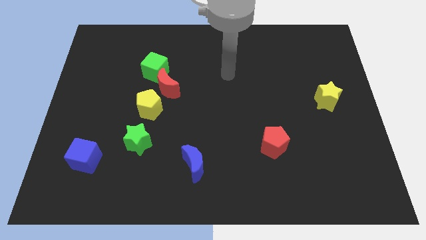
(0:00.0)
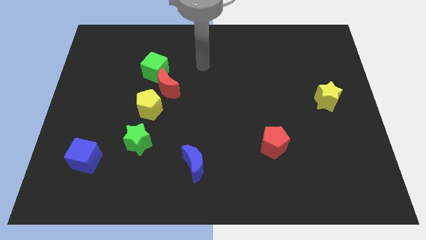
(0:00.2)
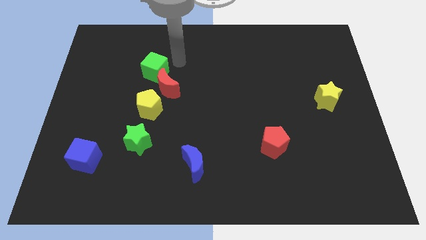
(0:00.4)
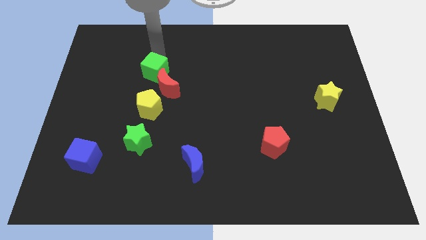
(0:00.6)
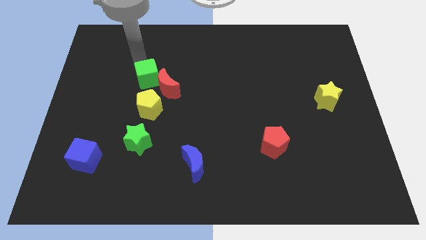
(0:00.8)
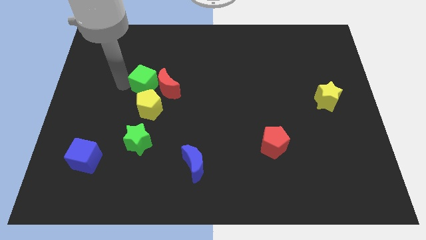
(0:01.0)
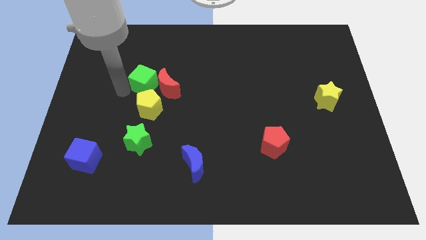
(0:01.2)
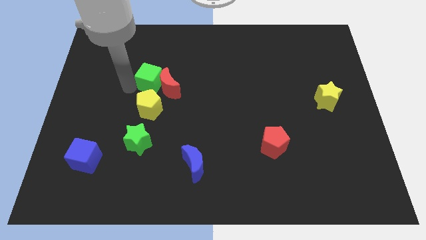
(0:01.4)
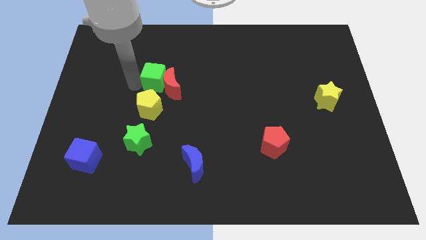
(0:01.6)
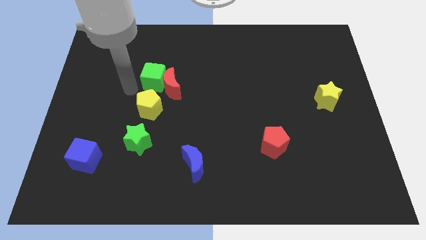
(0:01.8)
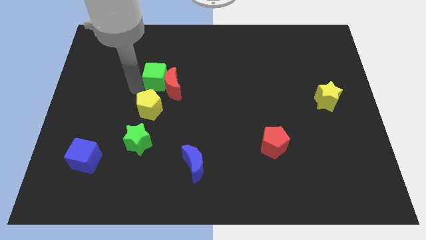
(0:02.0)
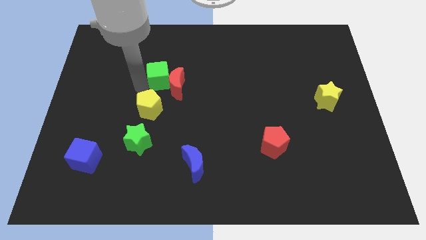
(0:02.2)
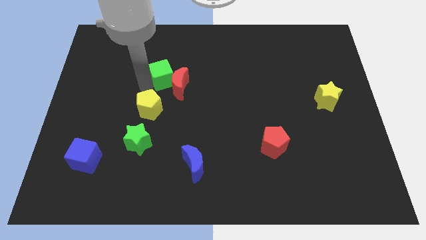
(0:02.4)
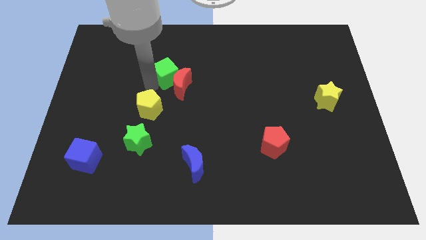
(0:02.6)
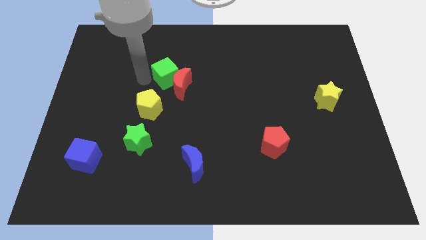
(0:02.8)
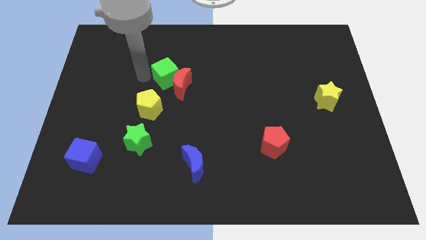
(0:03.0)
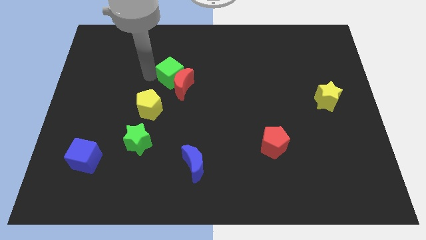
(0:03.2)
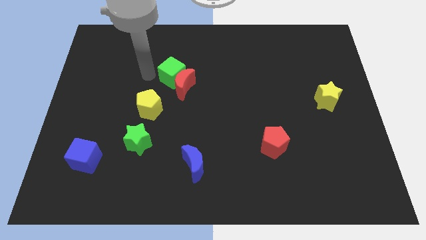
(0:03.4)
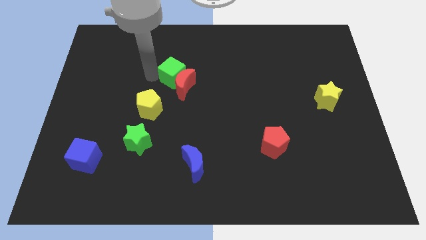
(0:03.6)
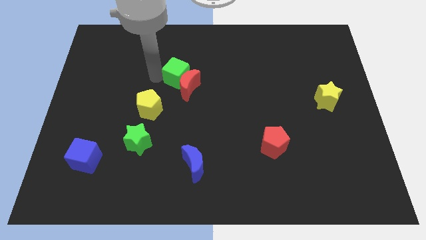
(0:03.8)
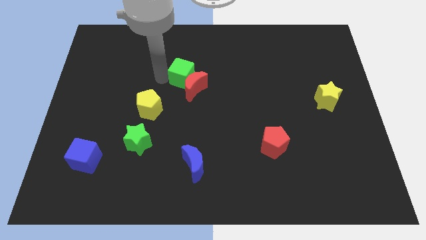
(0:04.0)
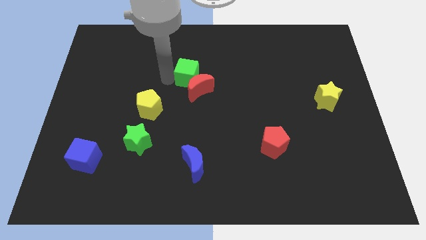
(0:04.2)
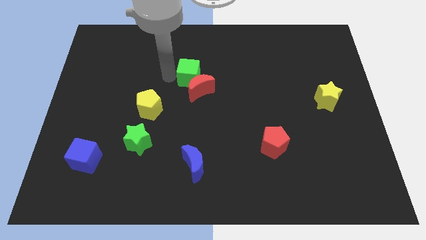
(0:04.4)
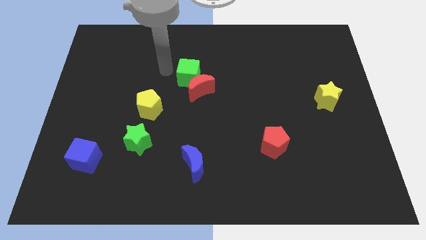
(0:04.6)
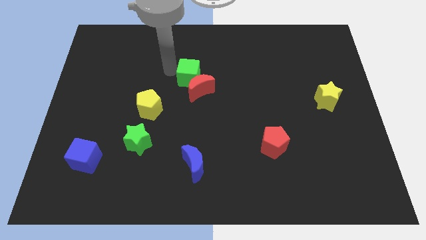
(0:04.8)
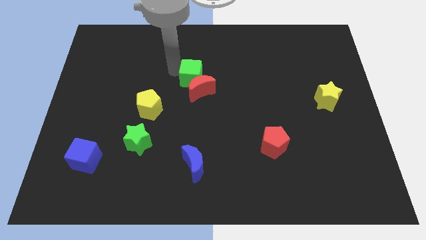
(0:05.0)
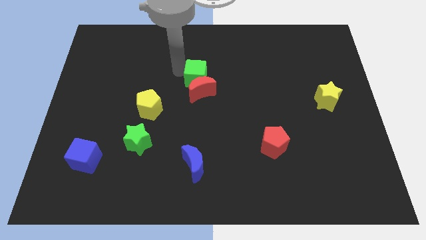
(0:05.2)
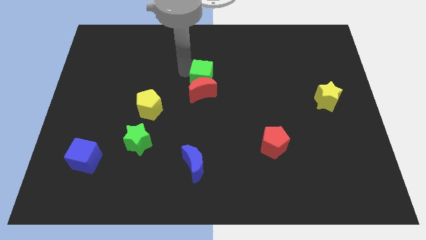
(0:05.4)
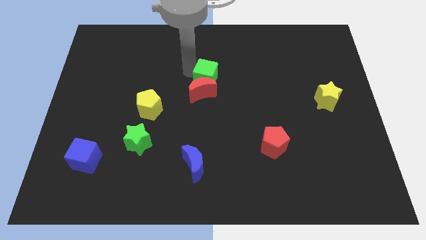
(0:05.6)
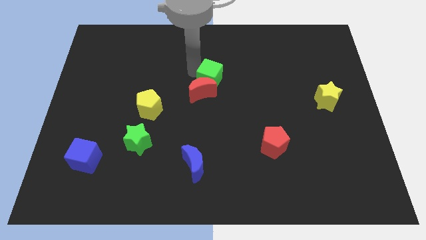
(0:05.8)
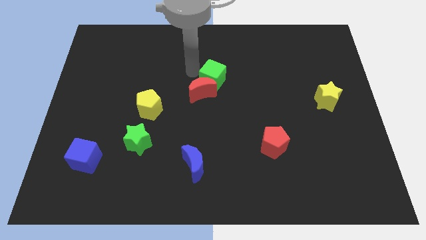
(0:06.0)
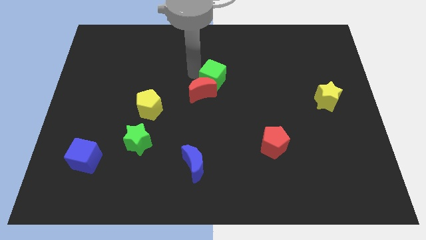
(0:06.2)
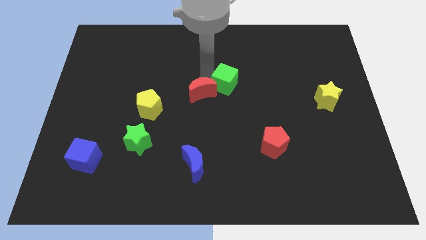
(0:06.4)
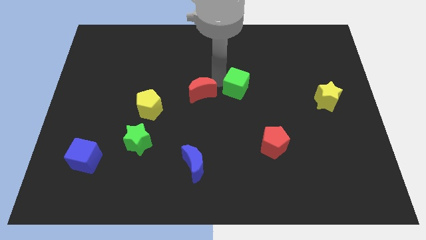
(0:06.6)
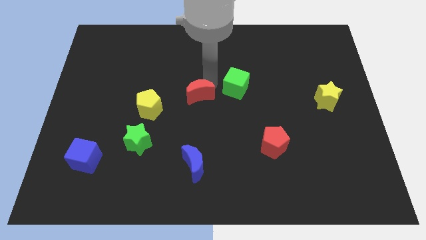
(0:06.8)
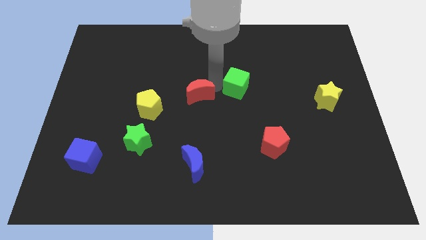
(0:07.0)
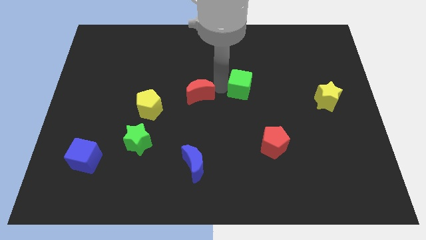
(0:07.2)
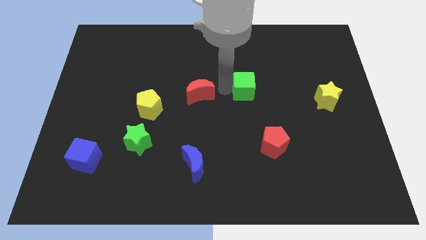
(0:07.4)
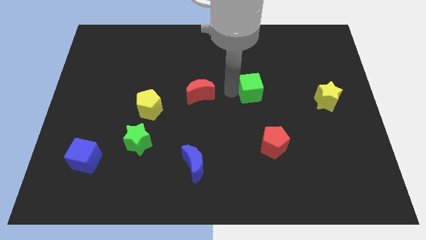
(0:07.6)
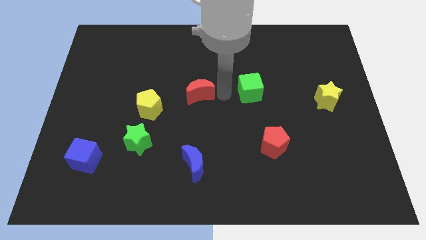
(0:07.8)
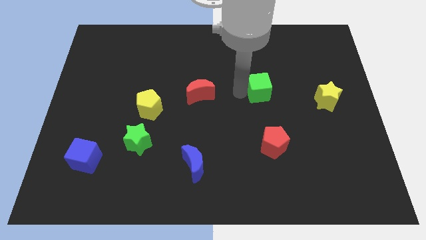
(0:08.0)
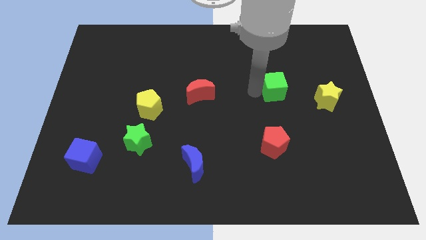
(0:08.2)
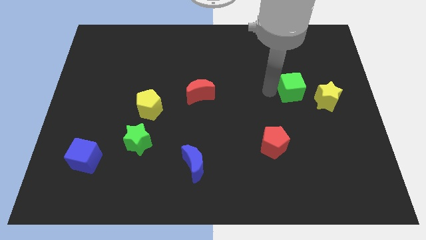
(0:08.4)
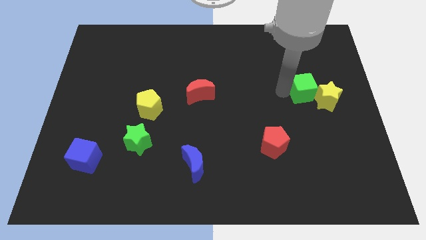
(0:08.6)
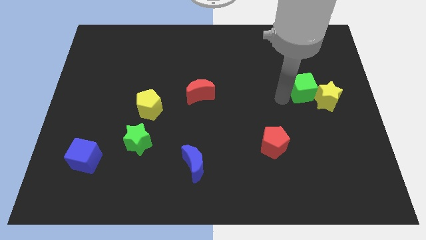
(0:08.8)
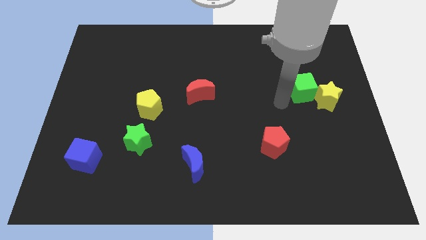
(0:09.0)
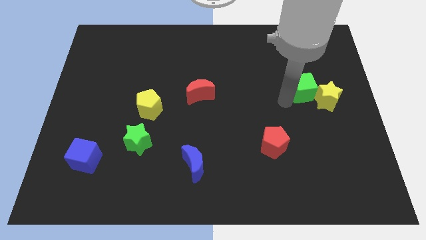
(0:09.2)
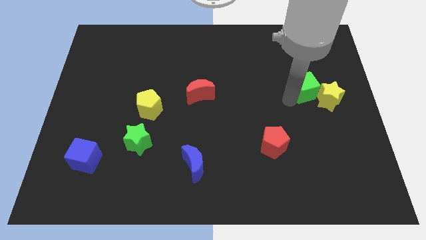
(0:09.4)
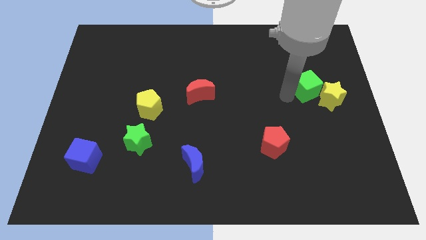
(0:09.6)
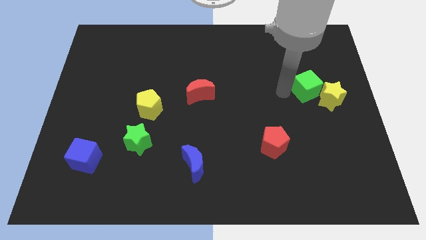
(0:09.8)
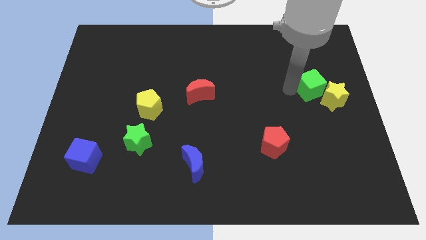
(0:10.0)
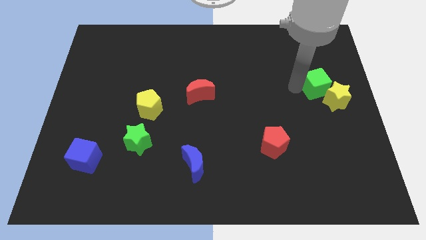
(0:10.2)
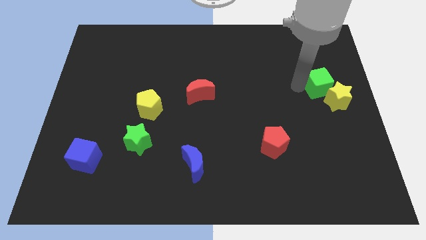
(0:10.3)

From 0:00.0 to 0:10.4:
put the green cube to the right side

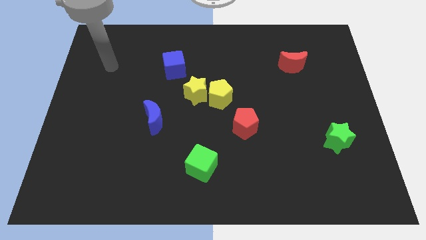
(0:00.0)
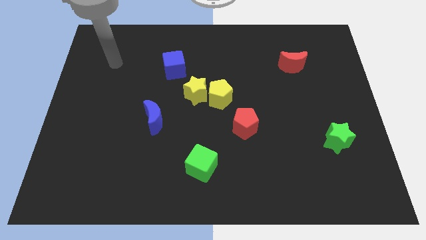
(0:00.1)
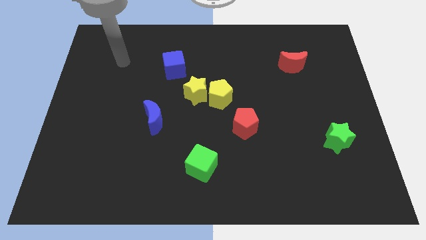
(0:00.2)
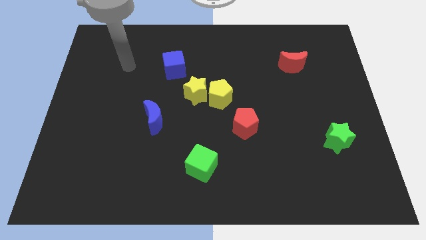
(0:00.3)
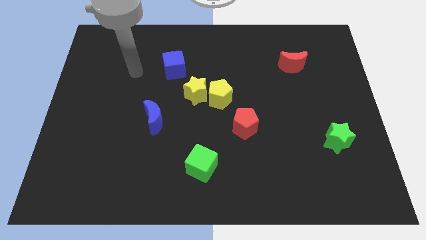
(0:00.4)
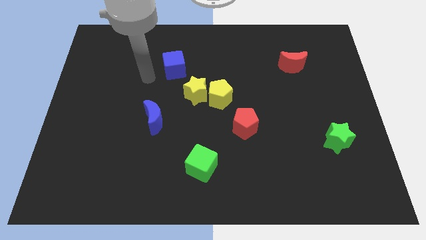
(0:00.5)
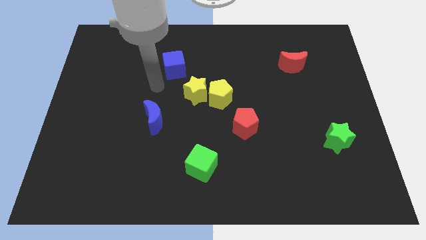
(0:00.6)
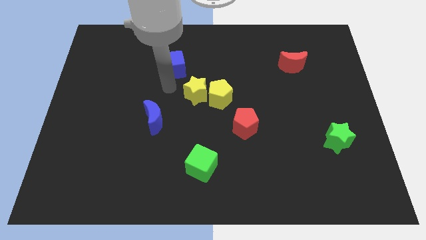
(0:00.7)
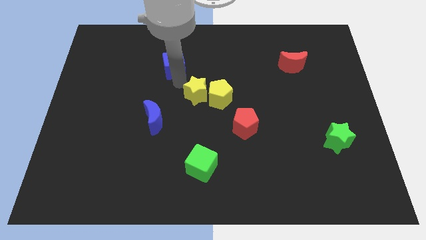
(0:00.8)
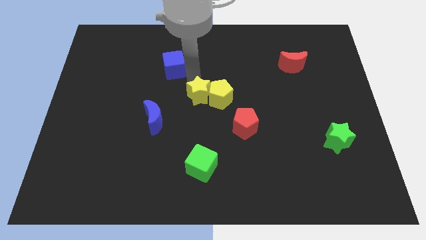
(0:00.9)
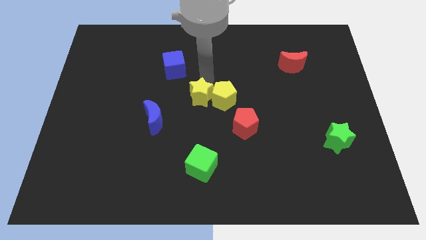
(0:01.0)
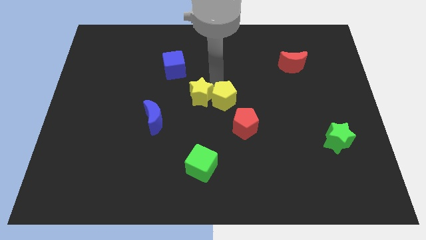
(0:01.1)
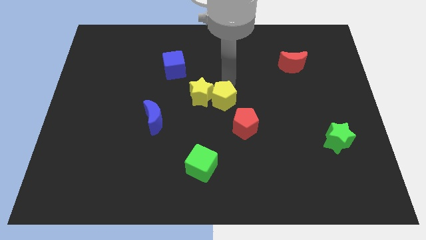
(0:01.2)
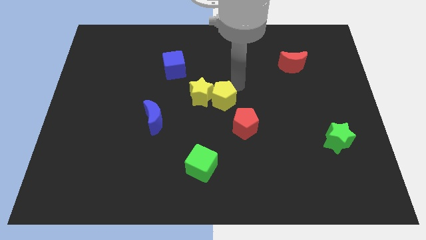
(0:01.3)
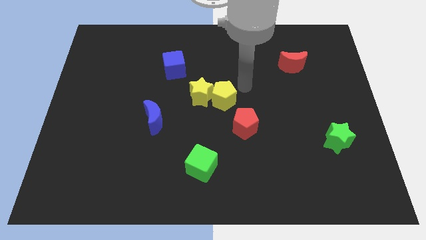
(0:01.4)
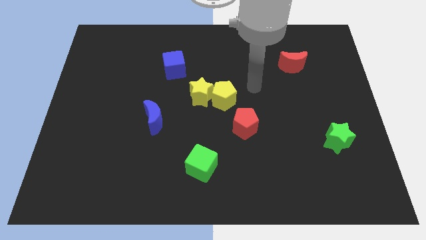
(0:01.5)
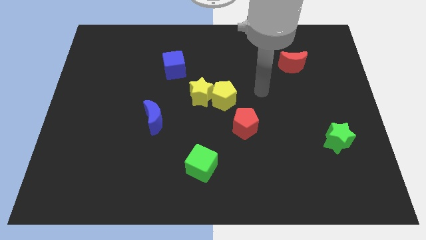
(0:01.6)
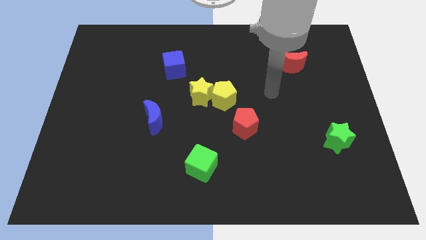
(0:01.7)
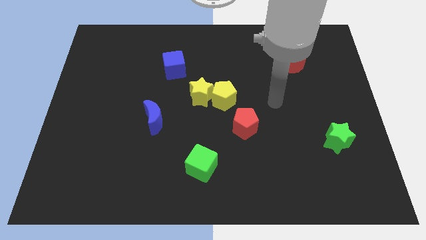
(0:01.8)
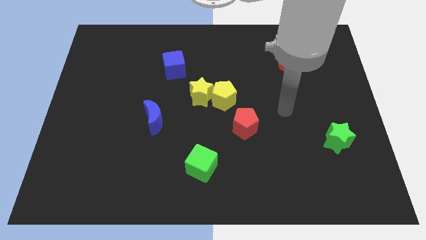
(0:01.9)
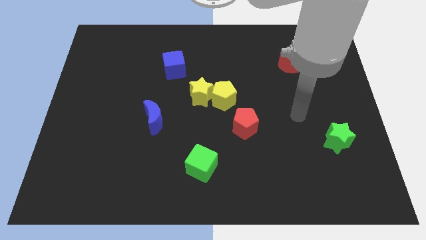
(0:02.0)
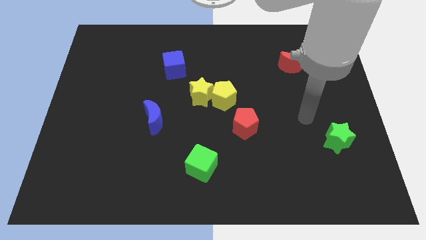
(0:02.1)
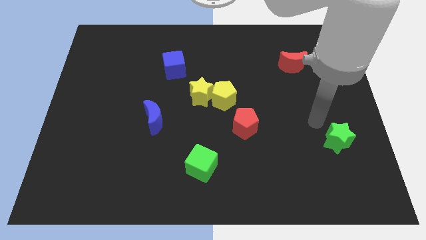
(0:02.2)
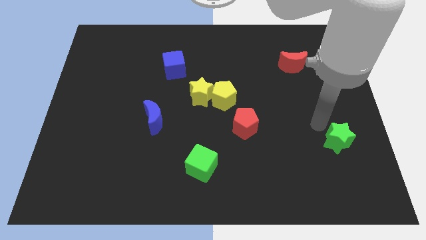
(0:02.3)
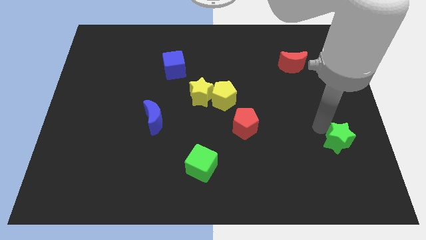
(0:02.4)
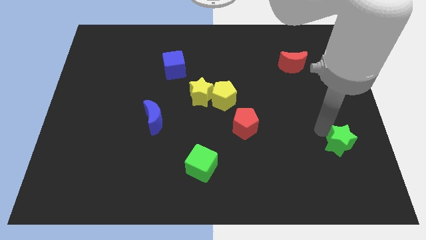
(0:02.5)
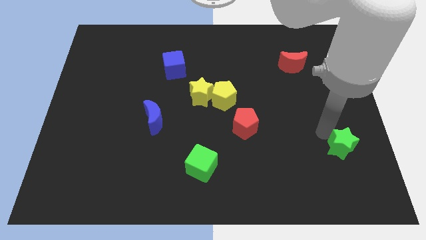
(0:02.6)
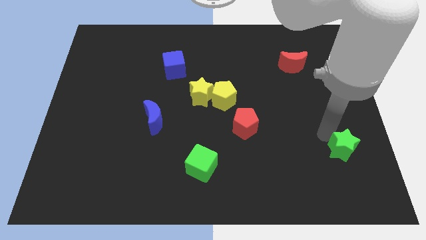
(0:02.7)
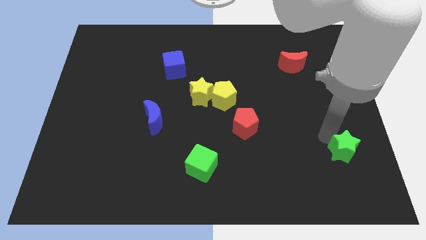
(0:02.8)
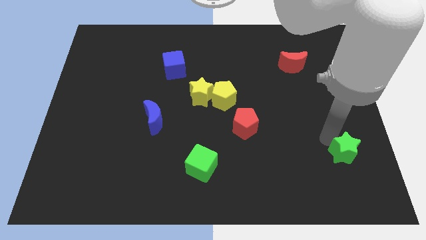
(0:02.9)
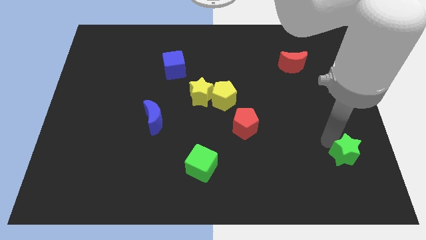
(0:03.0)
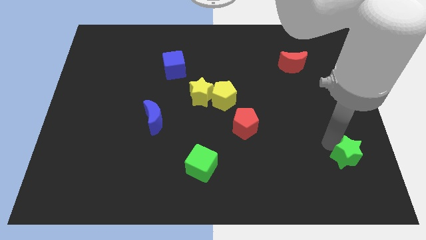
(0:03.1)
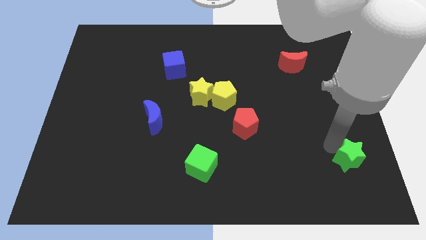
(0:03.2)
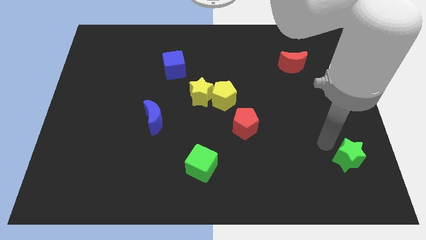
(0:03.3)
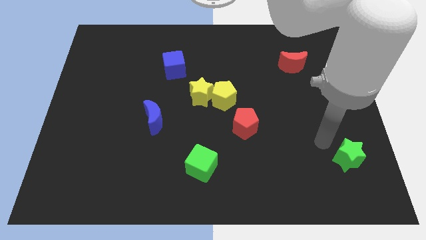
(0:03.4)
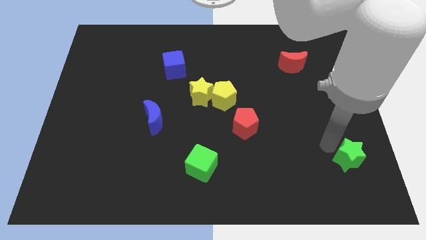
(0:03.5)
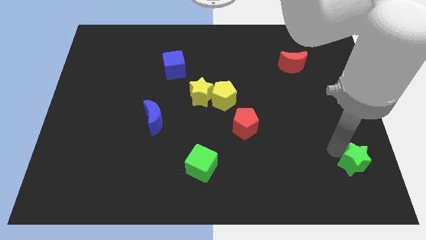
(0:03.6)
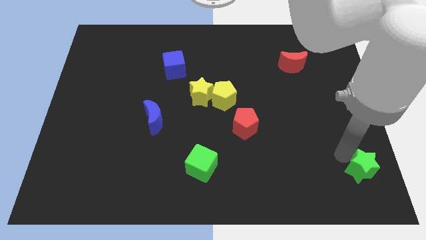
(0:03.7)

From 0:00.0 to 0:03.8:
slide the green star to the bottom right corner
